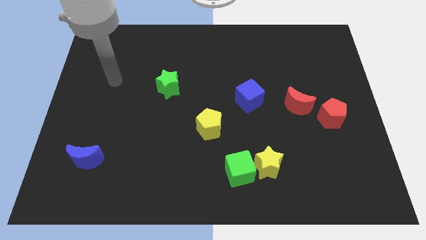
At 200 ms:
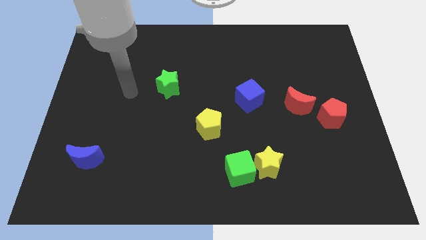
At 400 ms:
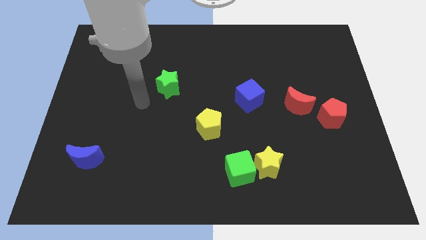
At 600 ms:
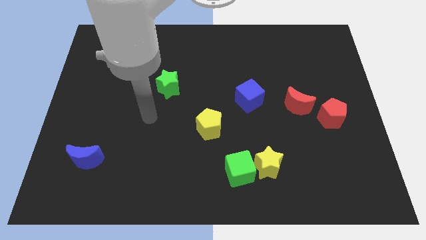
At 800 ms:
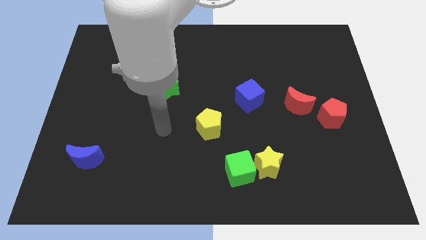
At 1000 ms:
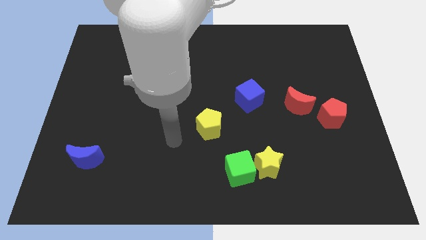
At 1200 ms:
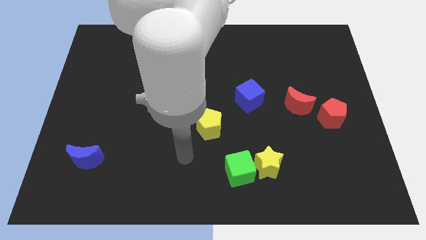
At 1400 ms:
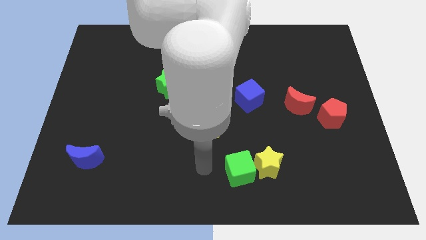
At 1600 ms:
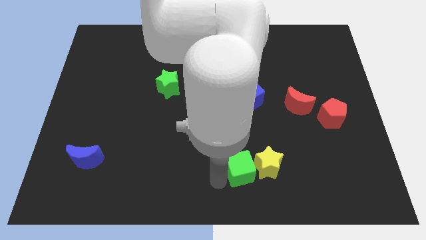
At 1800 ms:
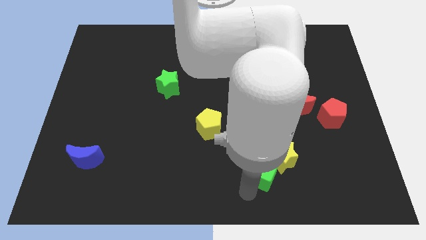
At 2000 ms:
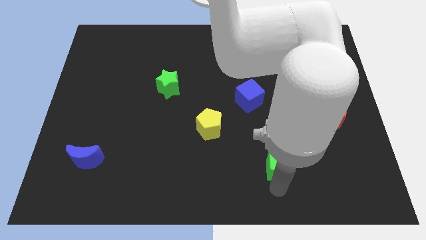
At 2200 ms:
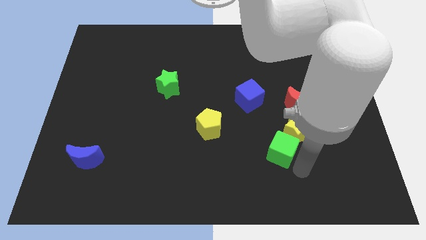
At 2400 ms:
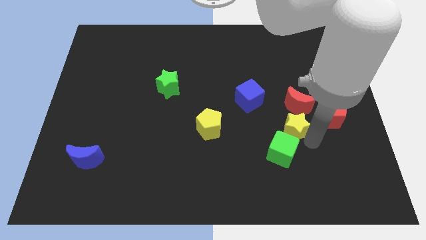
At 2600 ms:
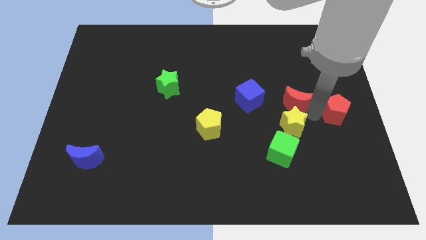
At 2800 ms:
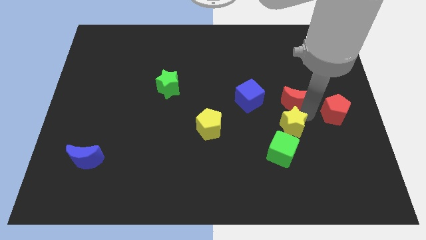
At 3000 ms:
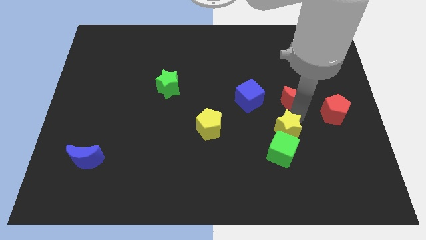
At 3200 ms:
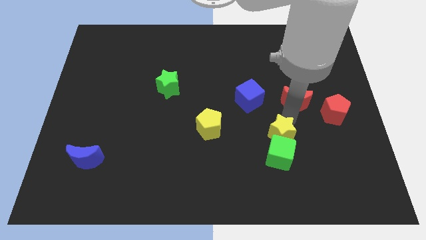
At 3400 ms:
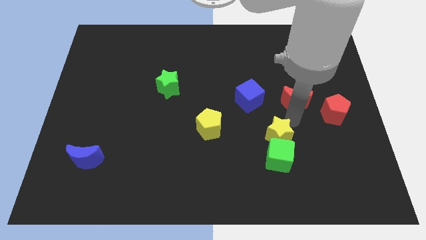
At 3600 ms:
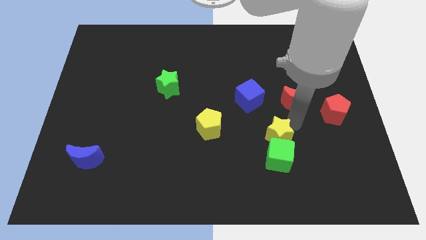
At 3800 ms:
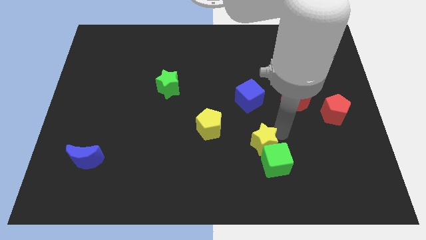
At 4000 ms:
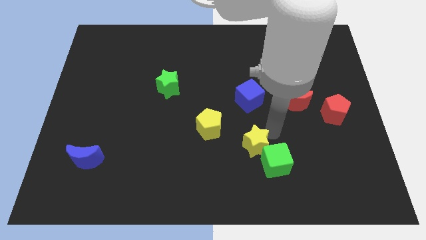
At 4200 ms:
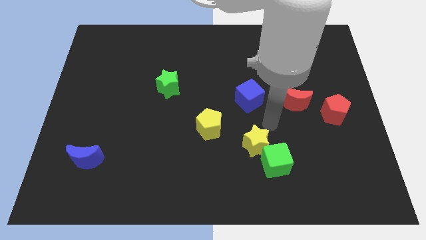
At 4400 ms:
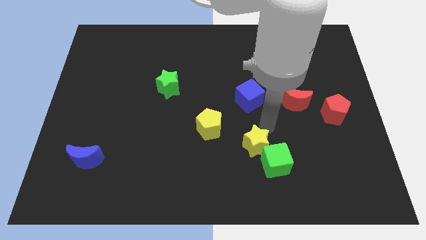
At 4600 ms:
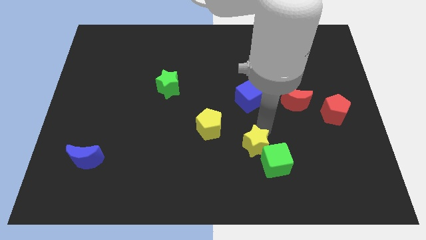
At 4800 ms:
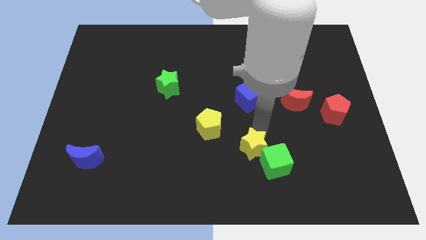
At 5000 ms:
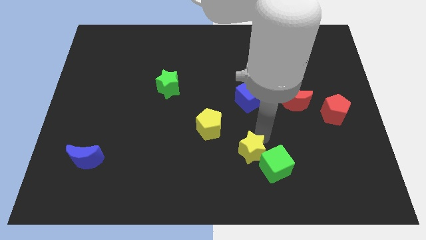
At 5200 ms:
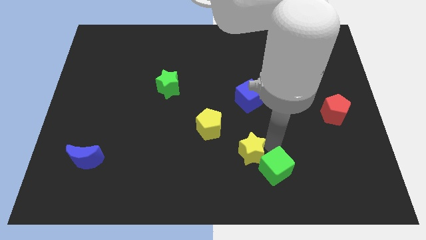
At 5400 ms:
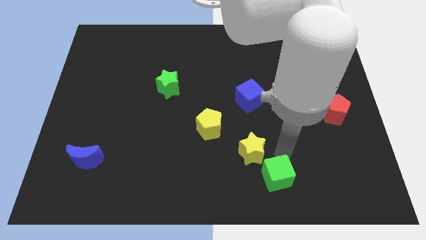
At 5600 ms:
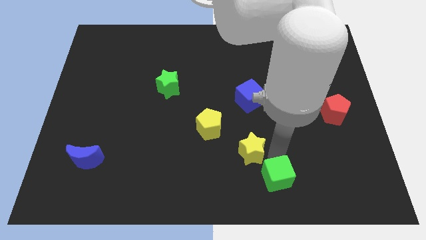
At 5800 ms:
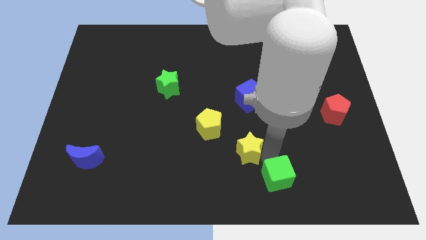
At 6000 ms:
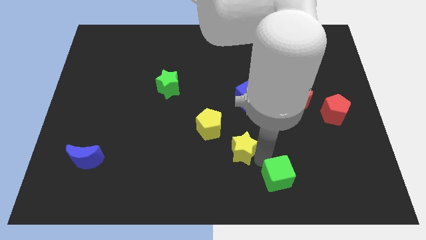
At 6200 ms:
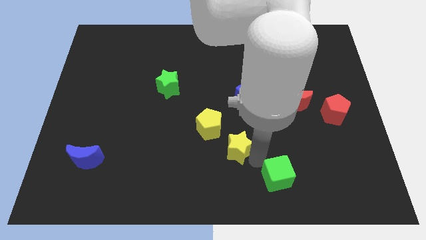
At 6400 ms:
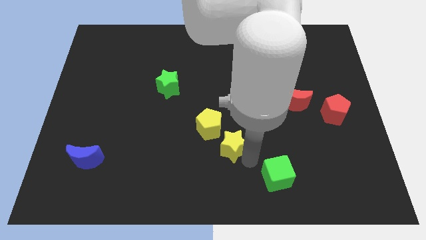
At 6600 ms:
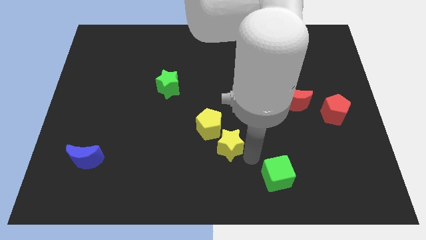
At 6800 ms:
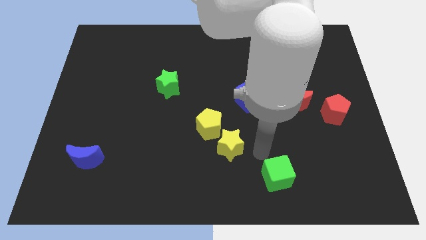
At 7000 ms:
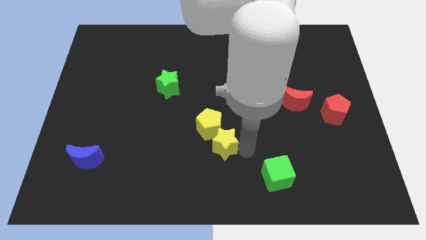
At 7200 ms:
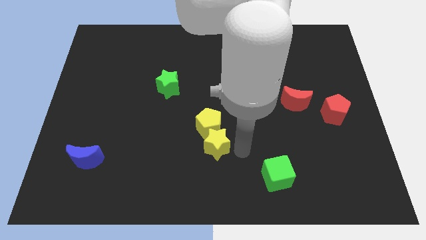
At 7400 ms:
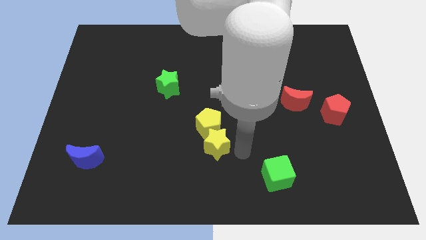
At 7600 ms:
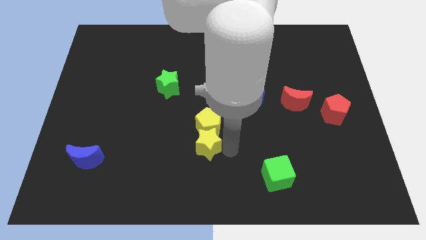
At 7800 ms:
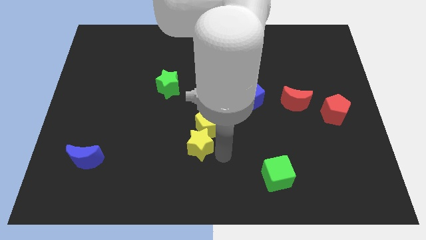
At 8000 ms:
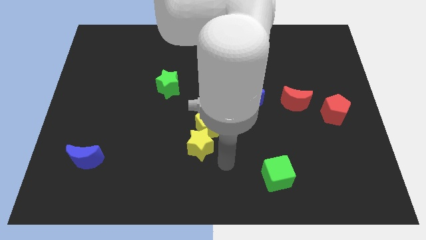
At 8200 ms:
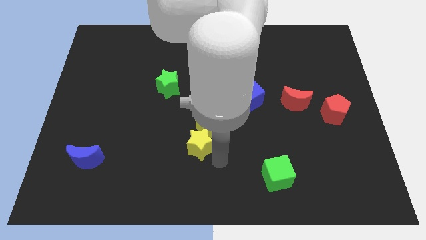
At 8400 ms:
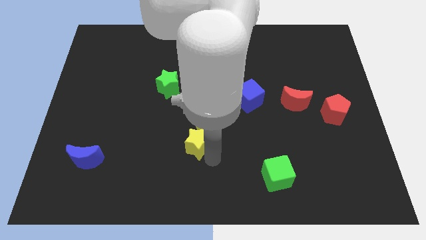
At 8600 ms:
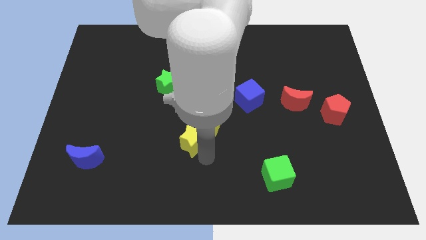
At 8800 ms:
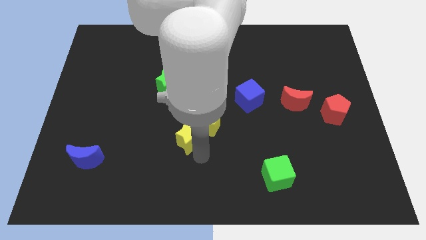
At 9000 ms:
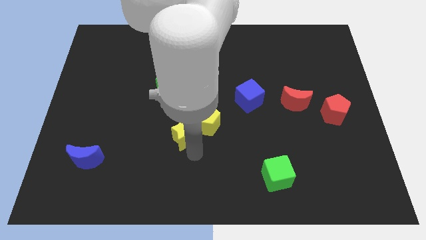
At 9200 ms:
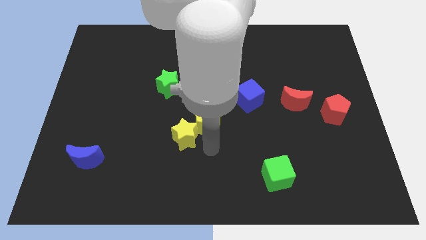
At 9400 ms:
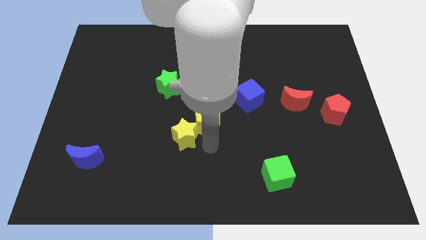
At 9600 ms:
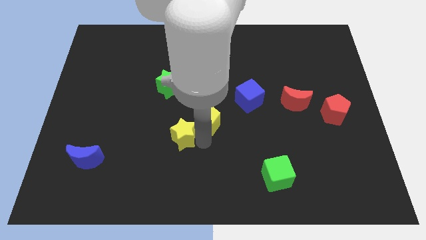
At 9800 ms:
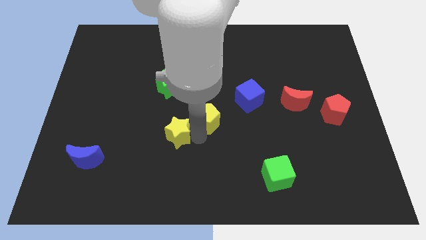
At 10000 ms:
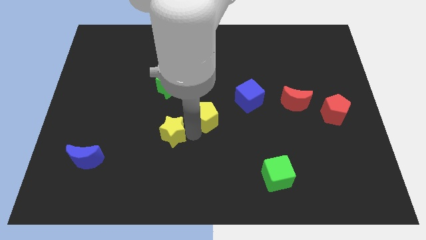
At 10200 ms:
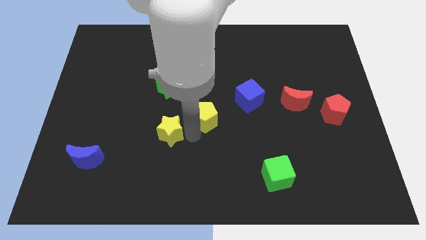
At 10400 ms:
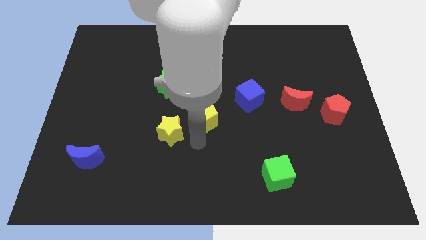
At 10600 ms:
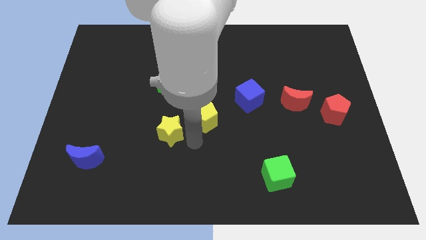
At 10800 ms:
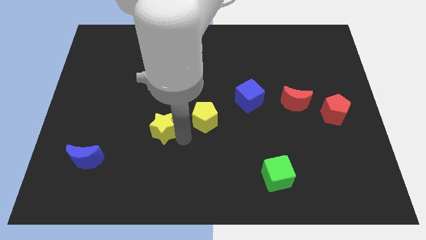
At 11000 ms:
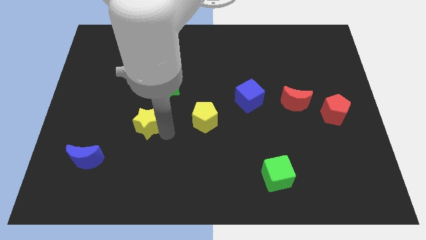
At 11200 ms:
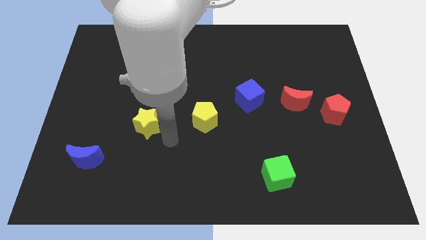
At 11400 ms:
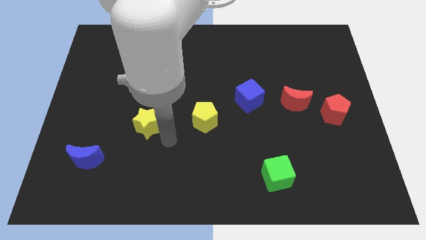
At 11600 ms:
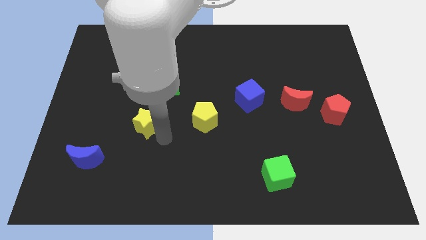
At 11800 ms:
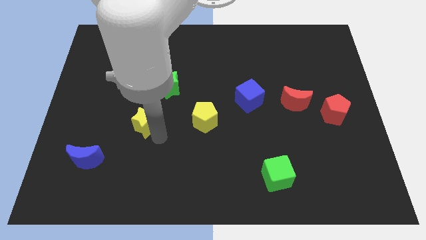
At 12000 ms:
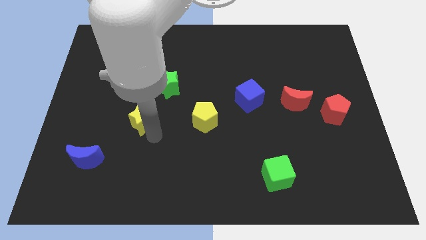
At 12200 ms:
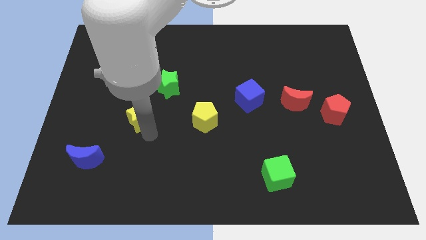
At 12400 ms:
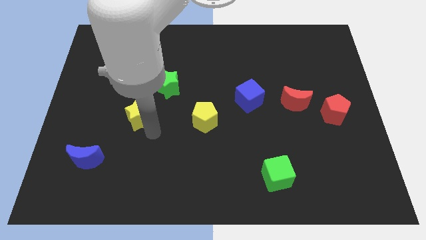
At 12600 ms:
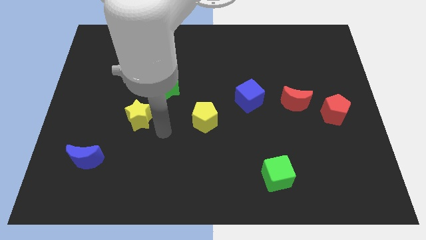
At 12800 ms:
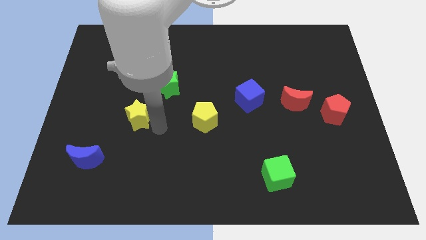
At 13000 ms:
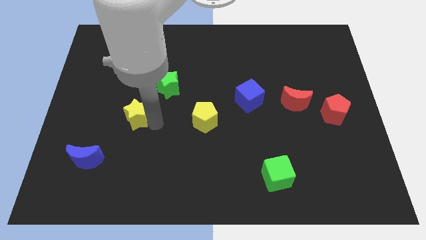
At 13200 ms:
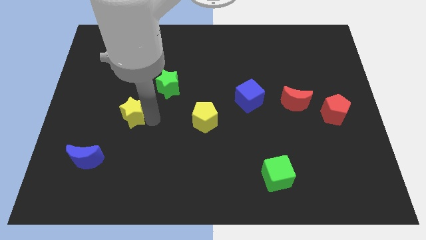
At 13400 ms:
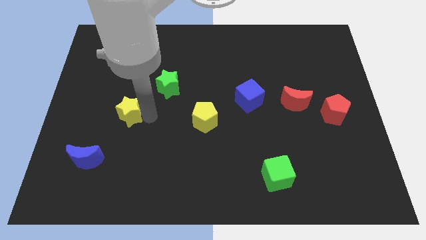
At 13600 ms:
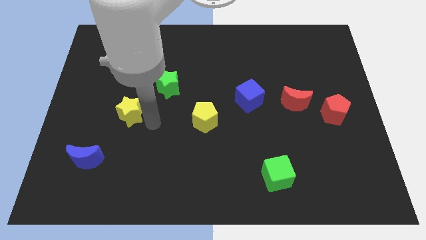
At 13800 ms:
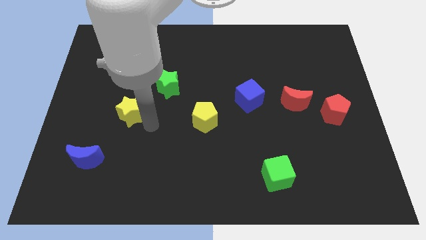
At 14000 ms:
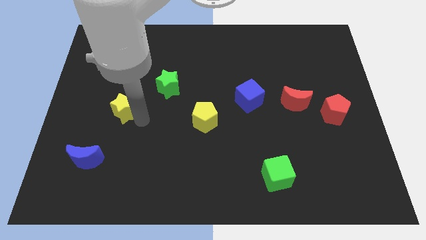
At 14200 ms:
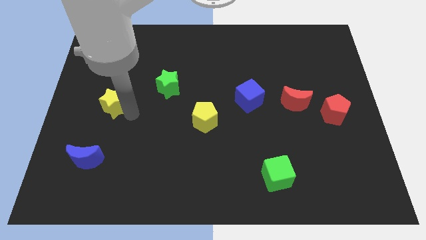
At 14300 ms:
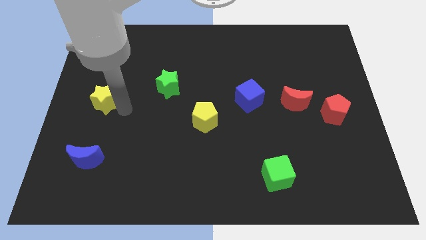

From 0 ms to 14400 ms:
move the yellow star to the left side of the board
